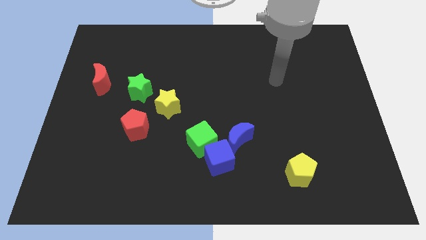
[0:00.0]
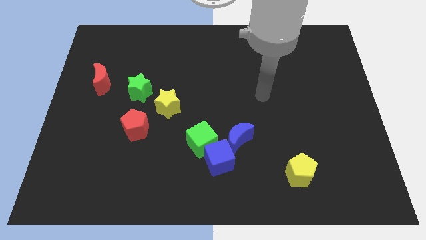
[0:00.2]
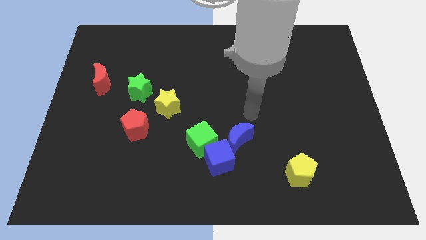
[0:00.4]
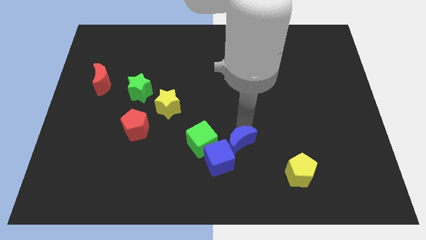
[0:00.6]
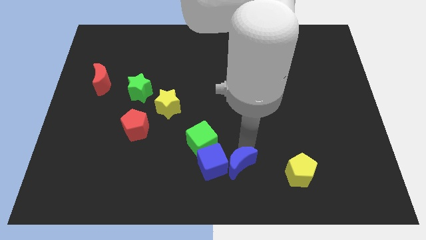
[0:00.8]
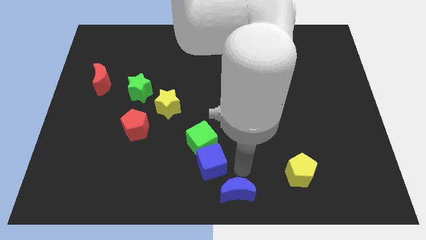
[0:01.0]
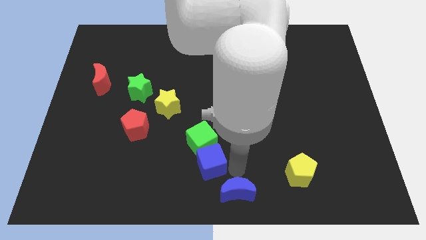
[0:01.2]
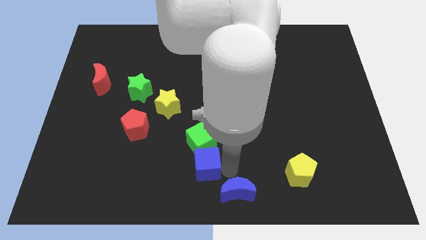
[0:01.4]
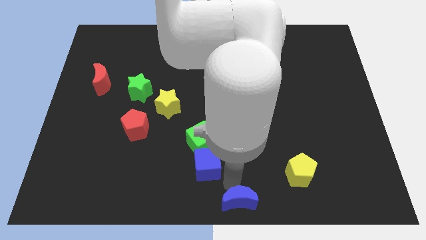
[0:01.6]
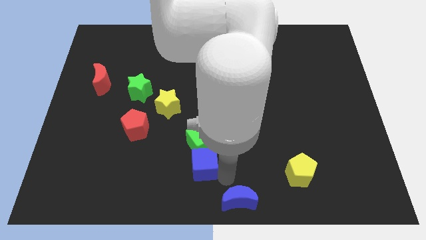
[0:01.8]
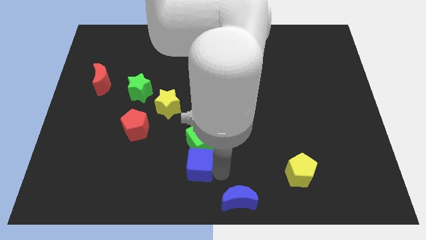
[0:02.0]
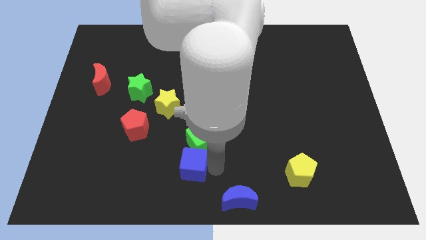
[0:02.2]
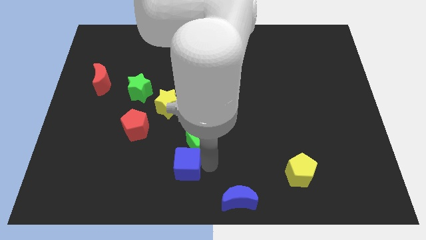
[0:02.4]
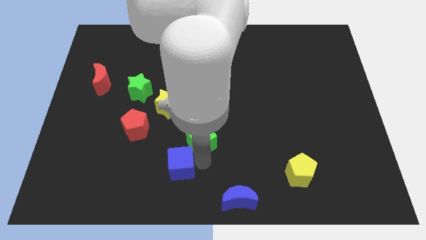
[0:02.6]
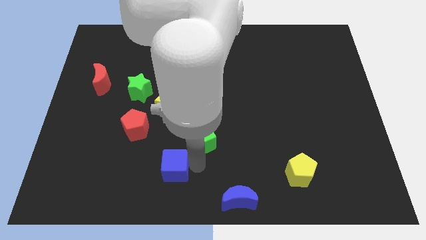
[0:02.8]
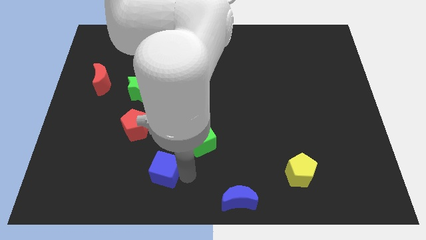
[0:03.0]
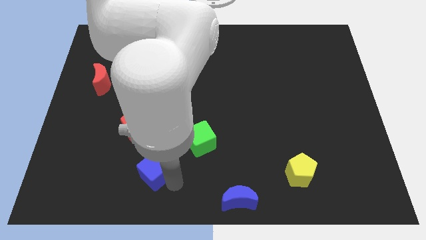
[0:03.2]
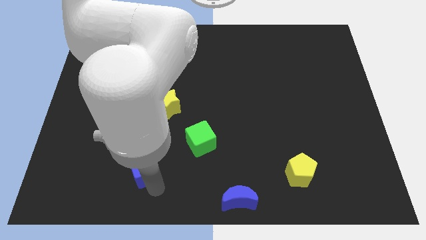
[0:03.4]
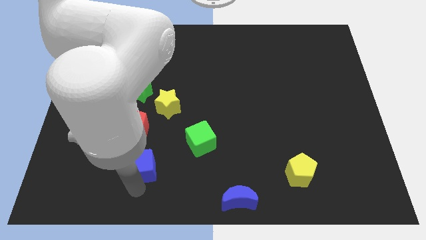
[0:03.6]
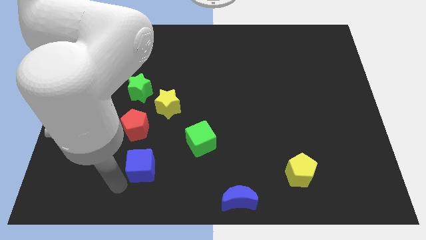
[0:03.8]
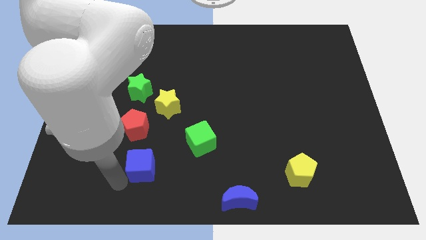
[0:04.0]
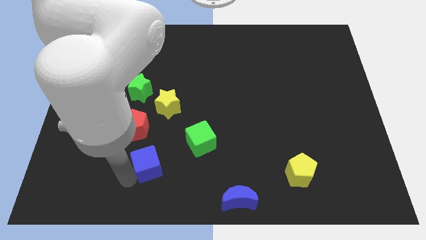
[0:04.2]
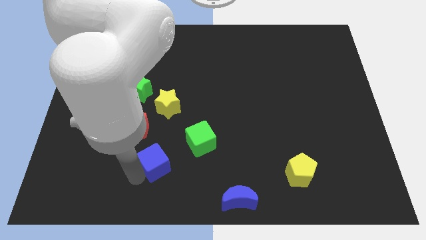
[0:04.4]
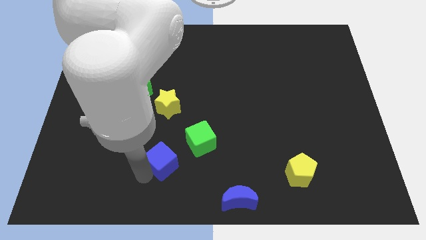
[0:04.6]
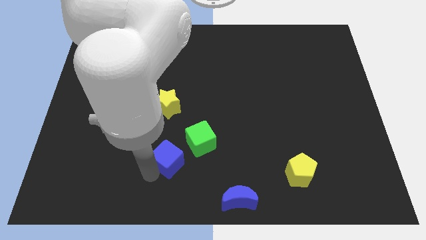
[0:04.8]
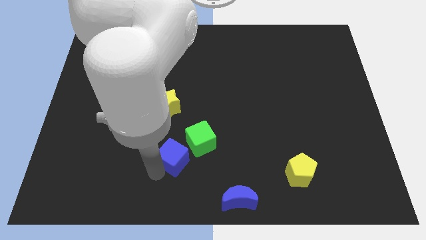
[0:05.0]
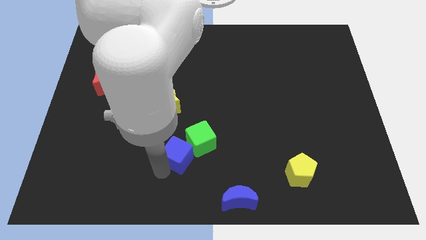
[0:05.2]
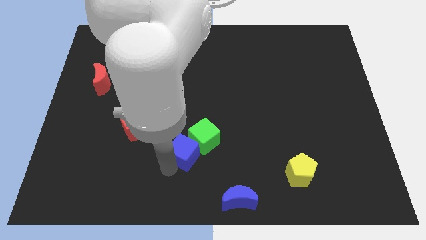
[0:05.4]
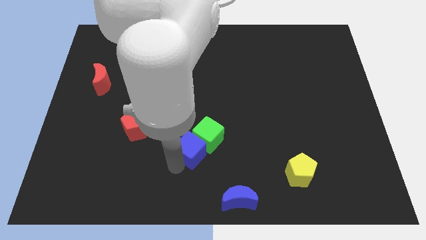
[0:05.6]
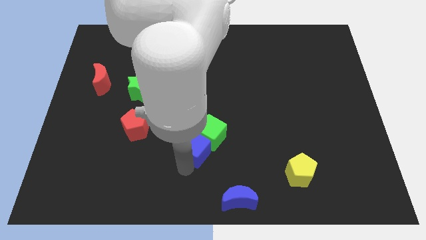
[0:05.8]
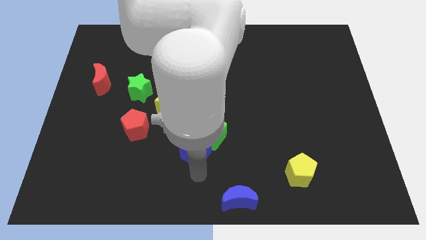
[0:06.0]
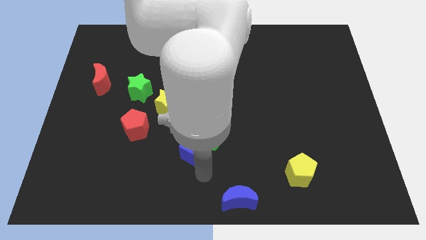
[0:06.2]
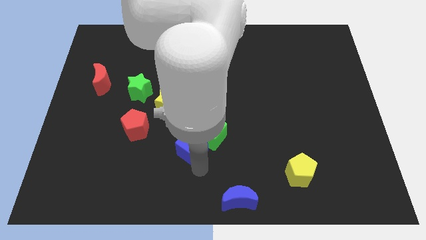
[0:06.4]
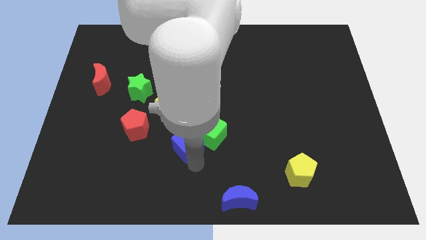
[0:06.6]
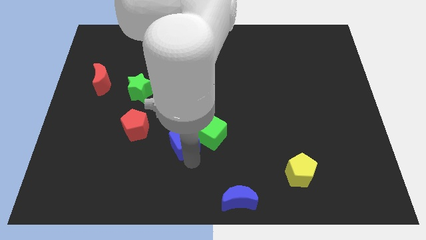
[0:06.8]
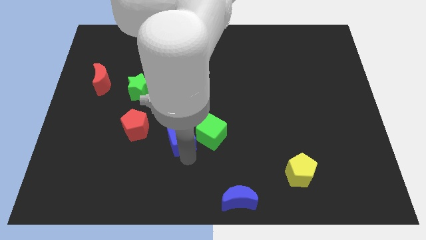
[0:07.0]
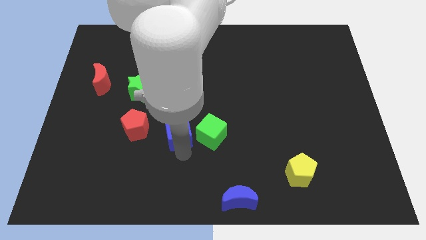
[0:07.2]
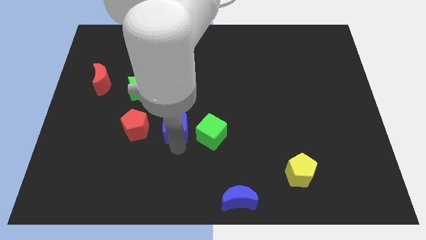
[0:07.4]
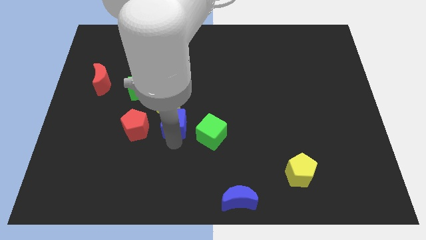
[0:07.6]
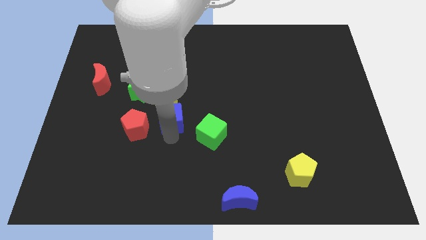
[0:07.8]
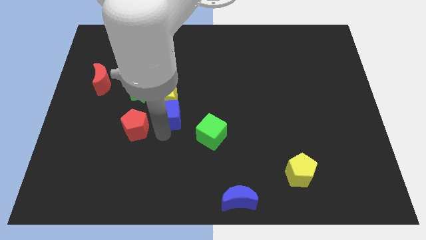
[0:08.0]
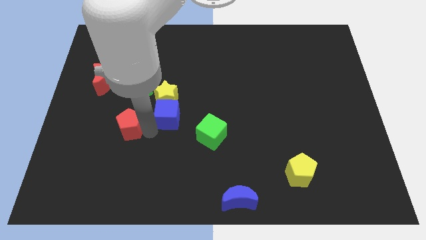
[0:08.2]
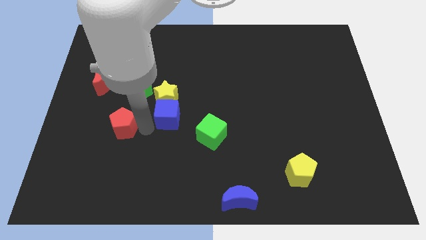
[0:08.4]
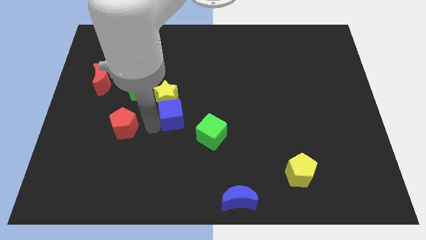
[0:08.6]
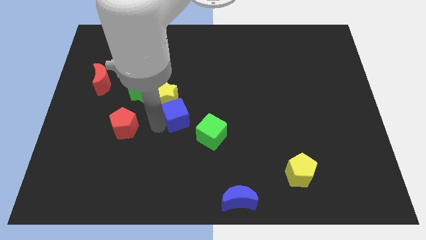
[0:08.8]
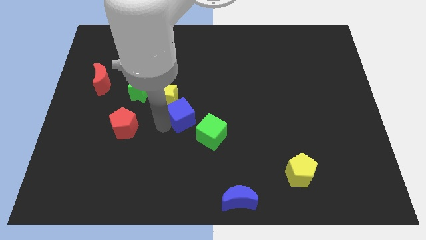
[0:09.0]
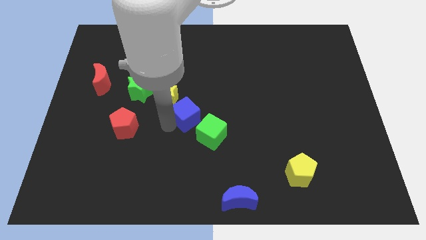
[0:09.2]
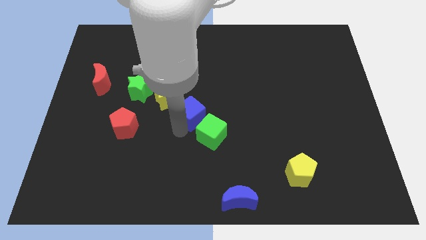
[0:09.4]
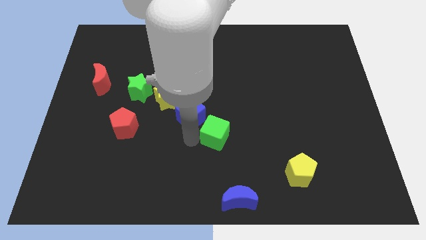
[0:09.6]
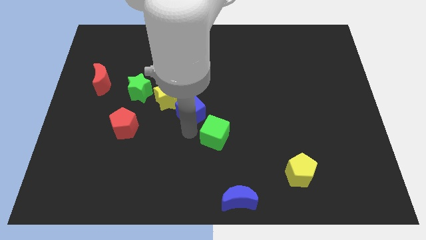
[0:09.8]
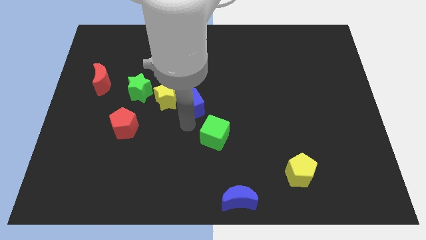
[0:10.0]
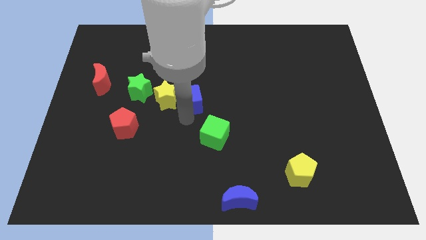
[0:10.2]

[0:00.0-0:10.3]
move the blue cube diagonally up and to the right of the yellow star

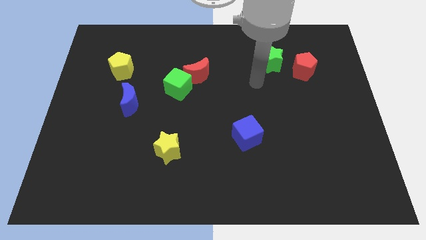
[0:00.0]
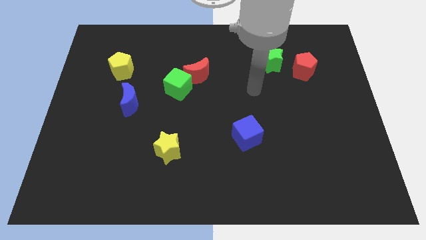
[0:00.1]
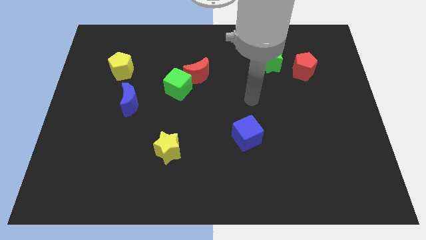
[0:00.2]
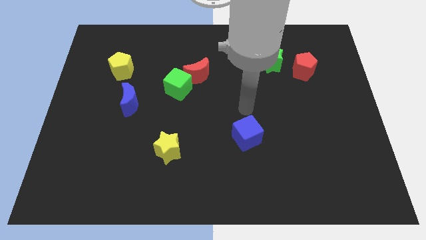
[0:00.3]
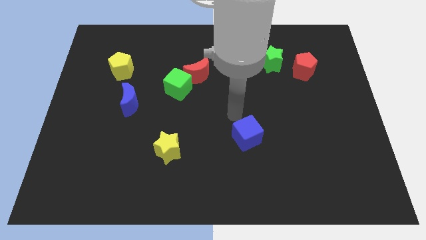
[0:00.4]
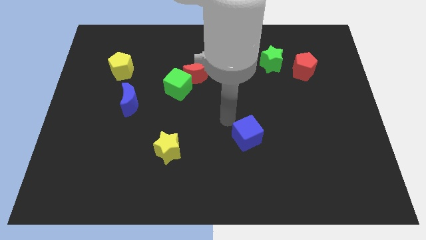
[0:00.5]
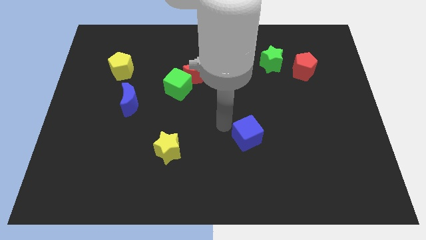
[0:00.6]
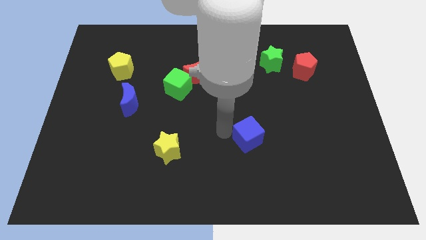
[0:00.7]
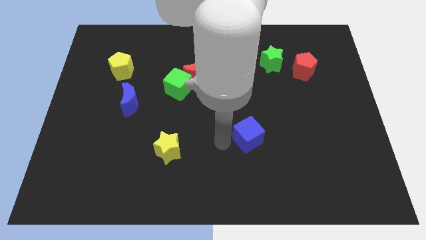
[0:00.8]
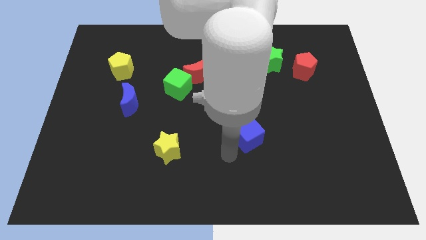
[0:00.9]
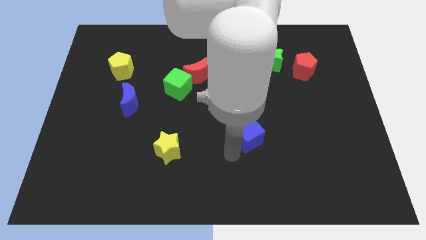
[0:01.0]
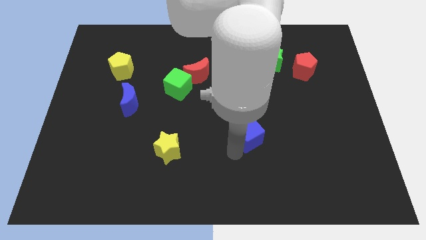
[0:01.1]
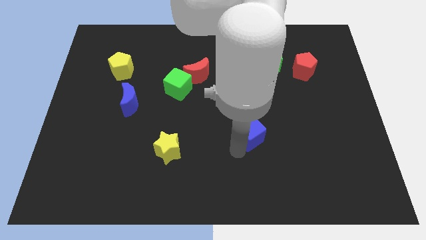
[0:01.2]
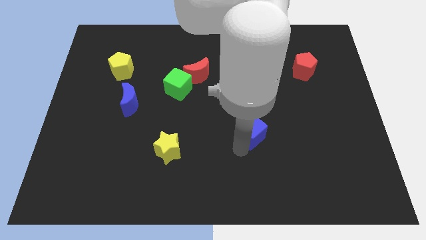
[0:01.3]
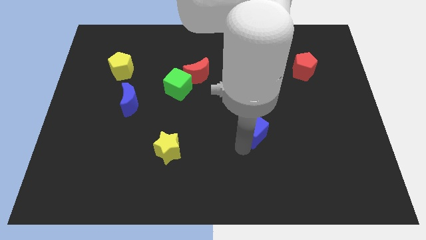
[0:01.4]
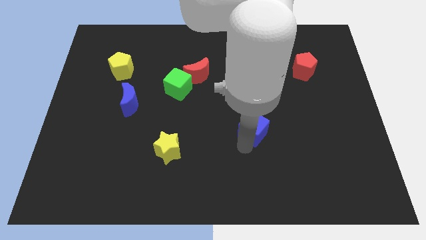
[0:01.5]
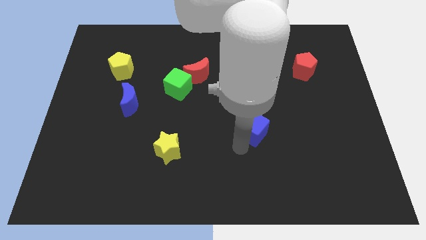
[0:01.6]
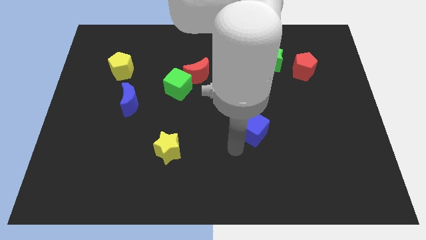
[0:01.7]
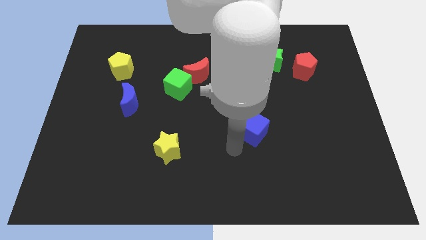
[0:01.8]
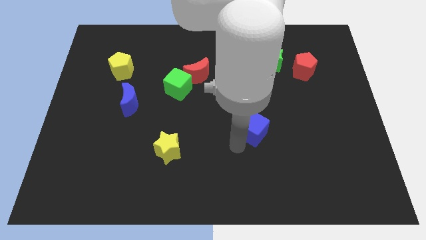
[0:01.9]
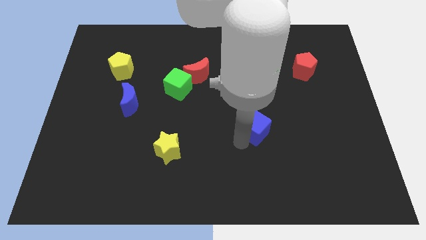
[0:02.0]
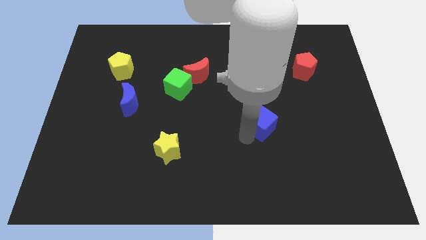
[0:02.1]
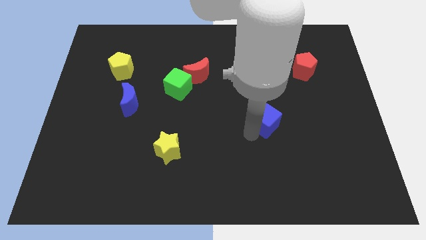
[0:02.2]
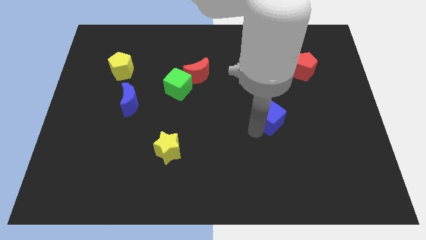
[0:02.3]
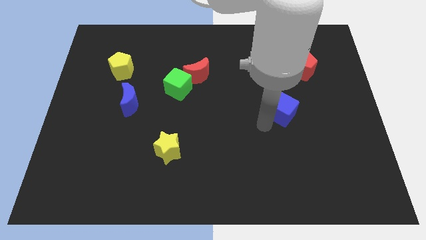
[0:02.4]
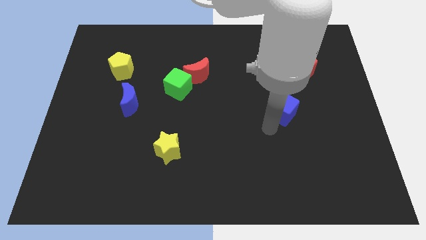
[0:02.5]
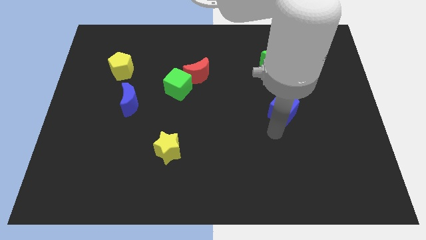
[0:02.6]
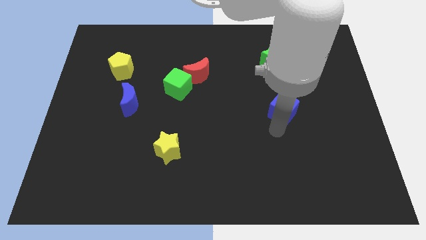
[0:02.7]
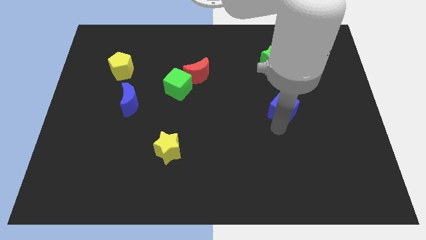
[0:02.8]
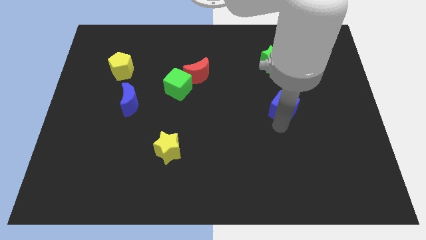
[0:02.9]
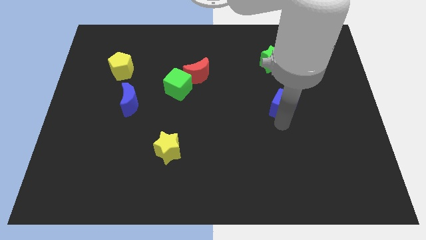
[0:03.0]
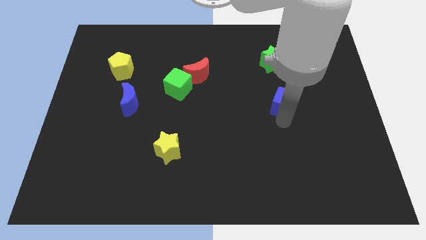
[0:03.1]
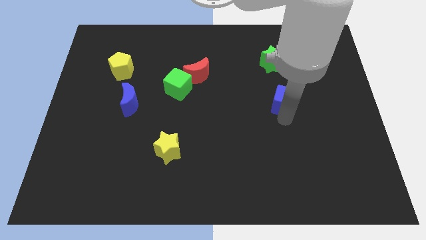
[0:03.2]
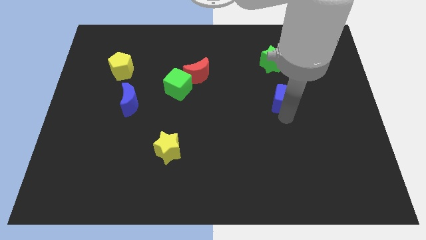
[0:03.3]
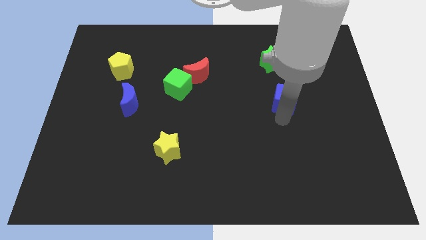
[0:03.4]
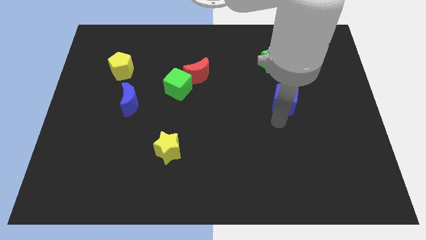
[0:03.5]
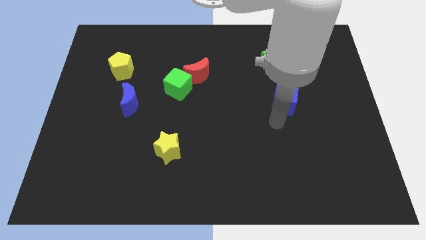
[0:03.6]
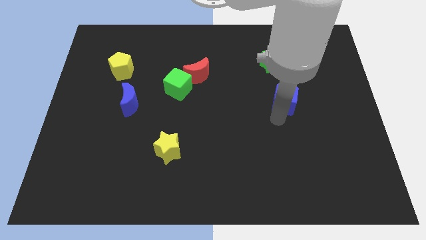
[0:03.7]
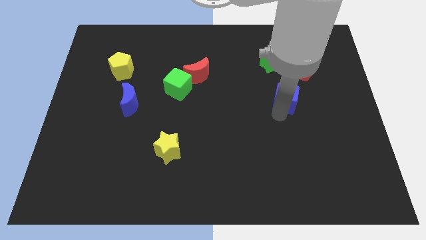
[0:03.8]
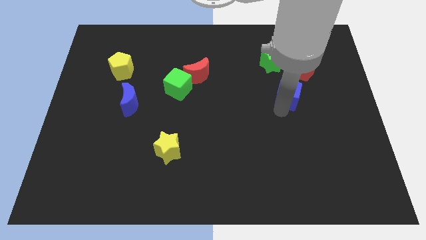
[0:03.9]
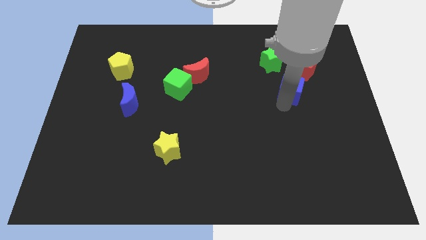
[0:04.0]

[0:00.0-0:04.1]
push the blue cube diagonally down and to the right of the green star
